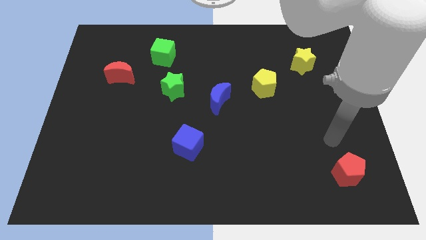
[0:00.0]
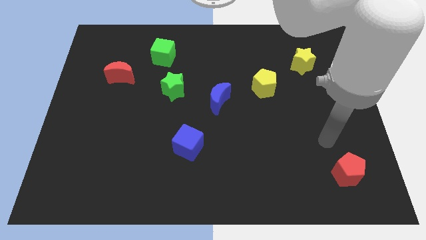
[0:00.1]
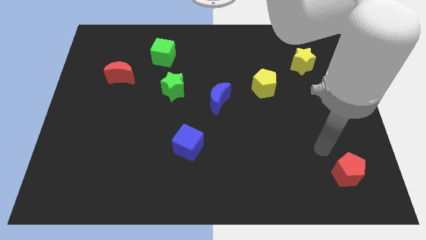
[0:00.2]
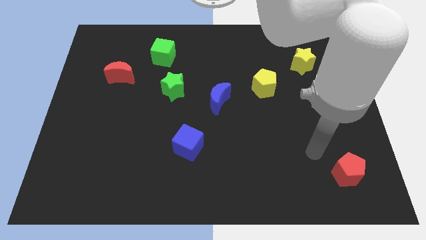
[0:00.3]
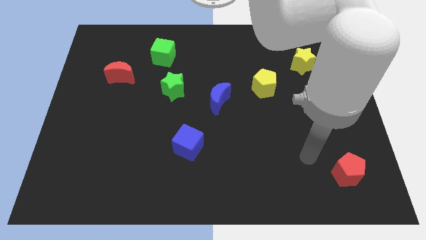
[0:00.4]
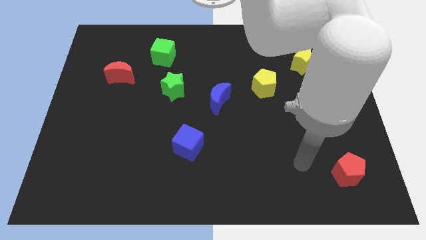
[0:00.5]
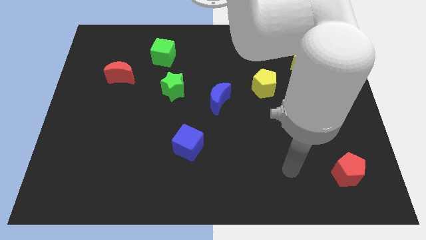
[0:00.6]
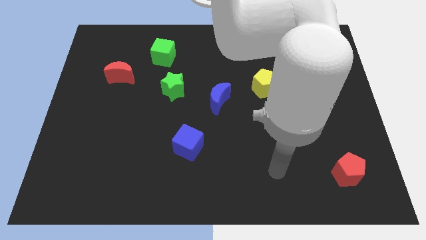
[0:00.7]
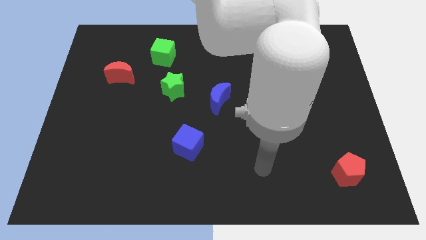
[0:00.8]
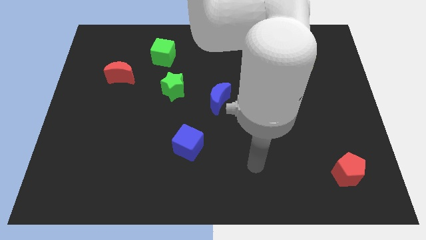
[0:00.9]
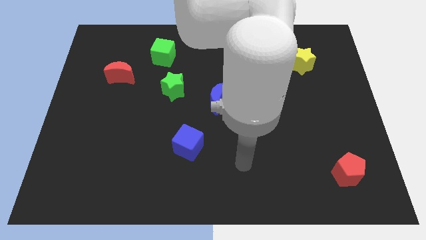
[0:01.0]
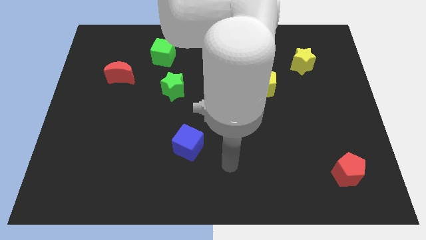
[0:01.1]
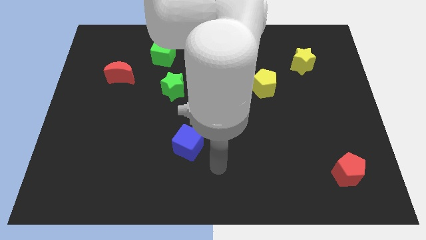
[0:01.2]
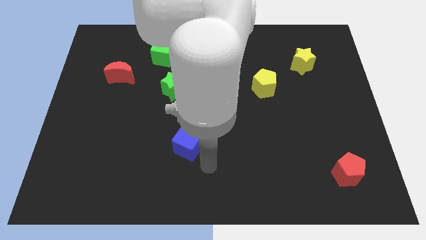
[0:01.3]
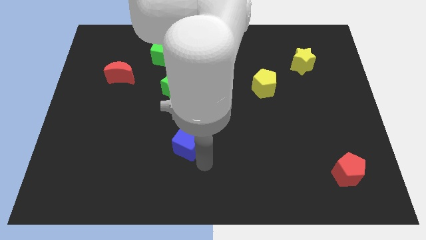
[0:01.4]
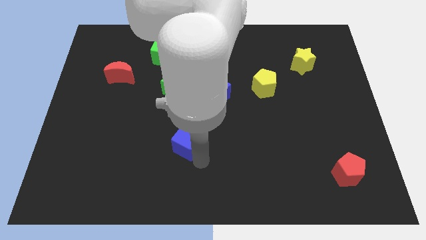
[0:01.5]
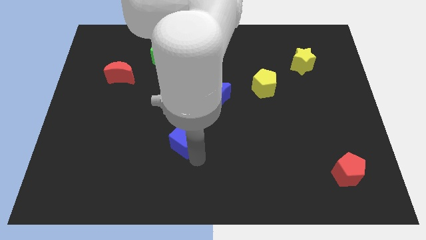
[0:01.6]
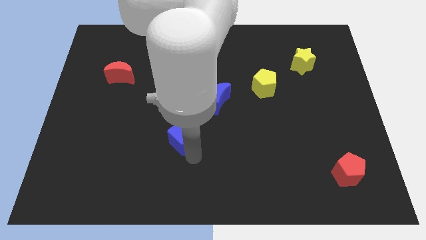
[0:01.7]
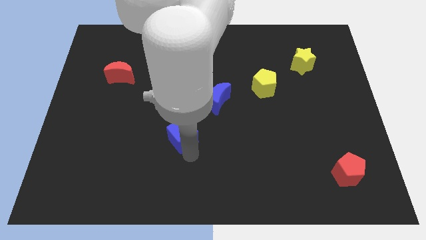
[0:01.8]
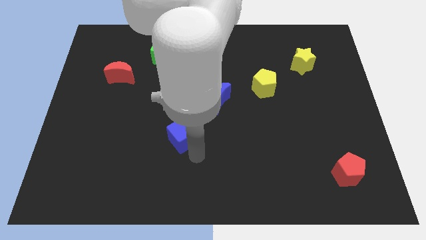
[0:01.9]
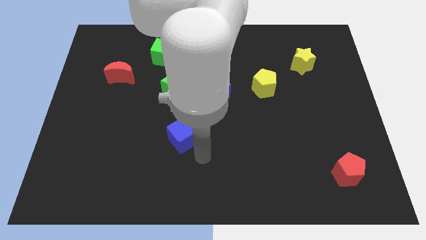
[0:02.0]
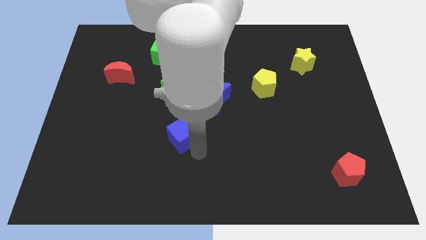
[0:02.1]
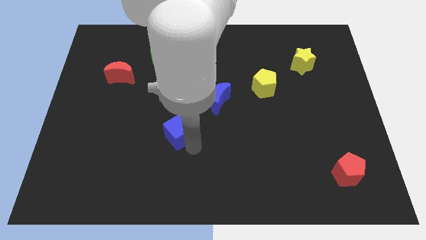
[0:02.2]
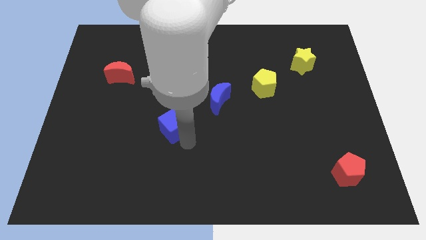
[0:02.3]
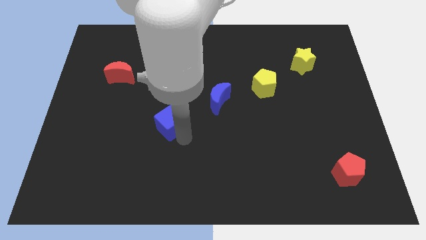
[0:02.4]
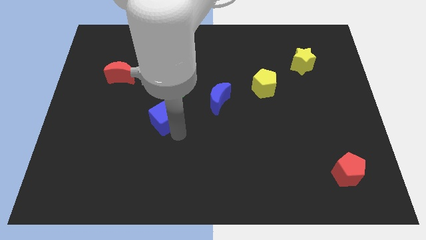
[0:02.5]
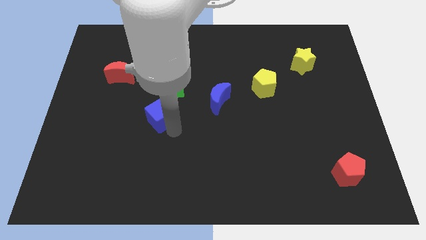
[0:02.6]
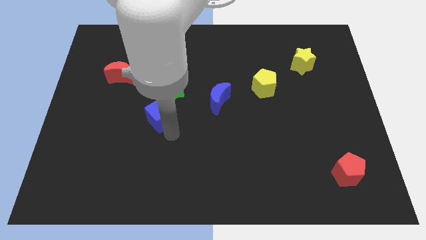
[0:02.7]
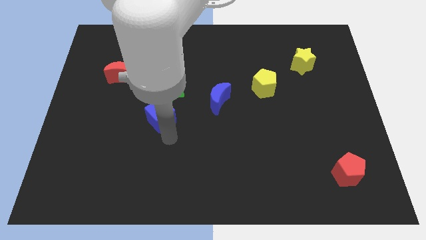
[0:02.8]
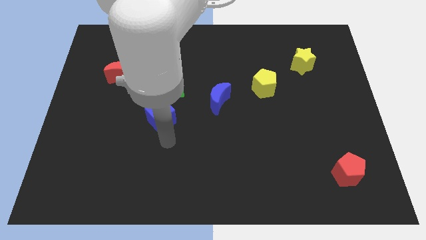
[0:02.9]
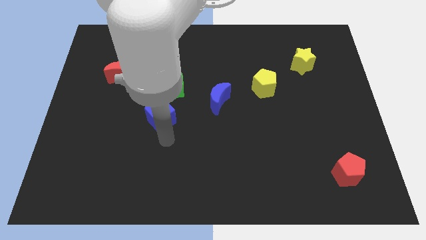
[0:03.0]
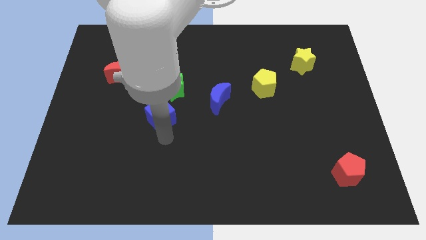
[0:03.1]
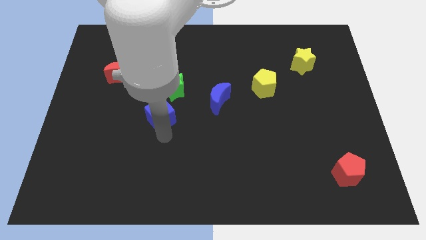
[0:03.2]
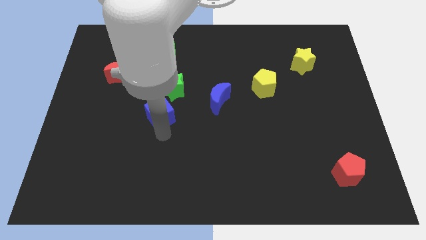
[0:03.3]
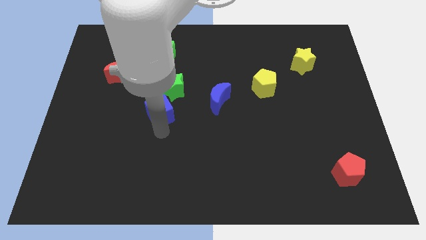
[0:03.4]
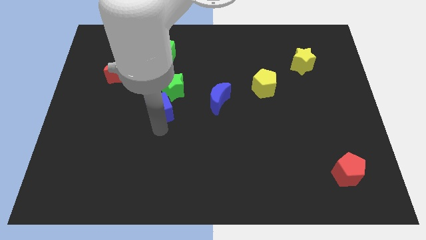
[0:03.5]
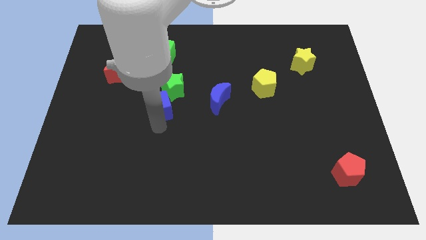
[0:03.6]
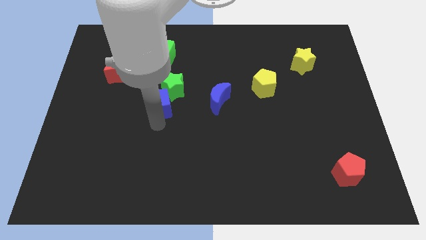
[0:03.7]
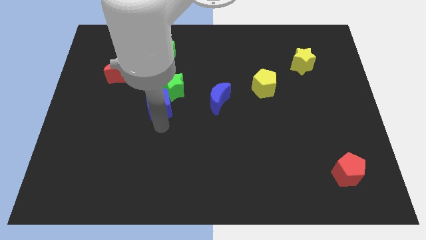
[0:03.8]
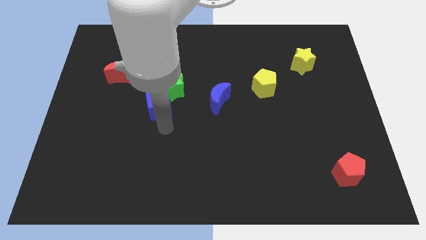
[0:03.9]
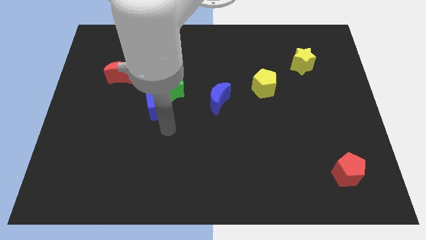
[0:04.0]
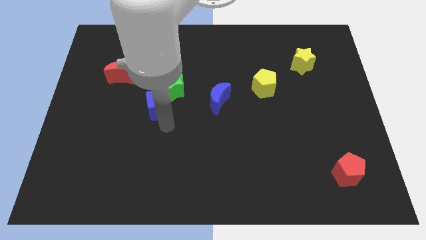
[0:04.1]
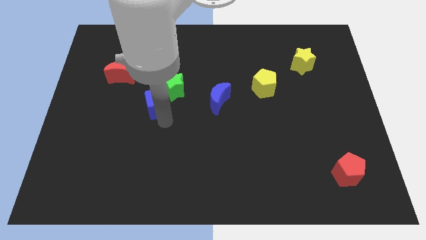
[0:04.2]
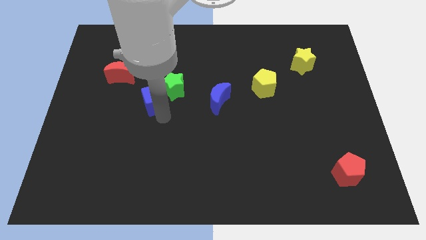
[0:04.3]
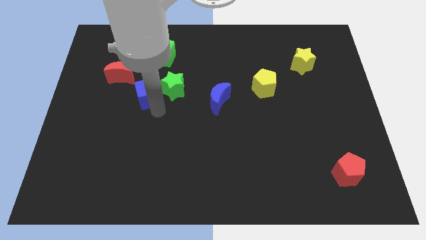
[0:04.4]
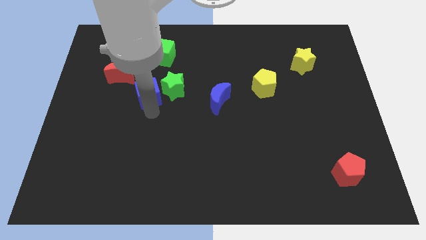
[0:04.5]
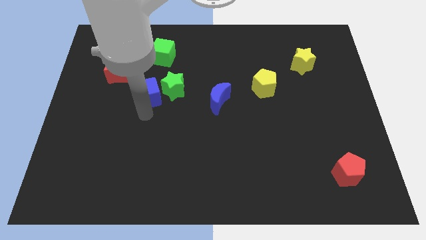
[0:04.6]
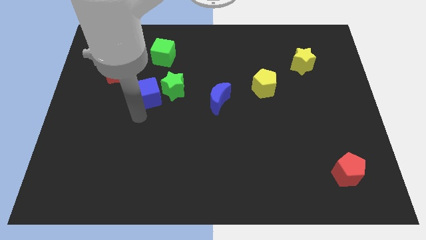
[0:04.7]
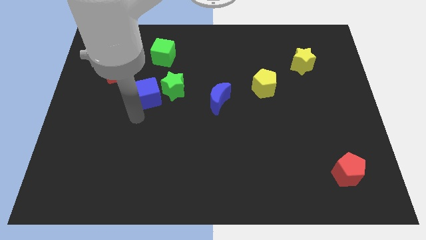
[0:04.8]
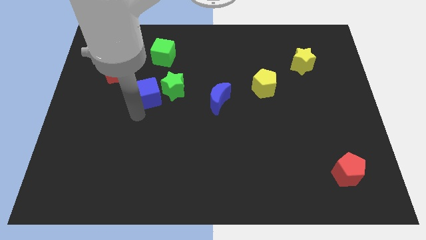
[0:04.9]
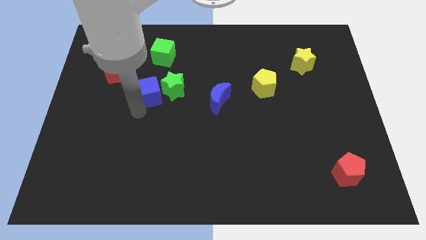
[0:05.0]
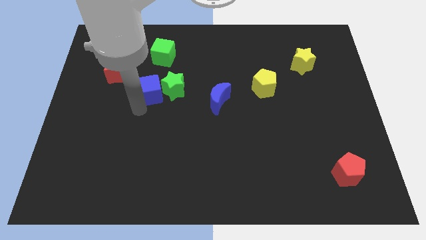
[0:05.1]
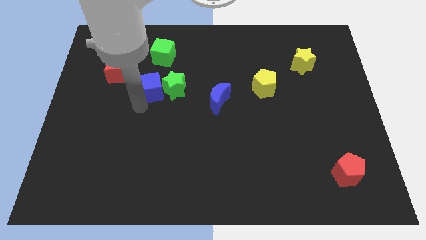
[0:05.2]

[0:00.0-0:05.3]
move the blue cube to the right of the red moon

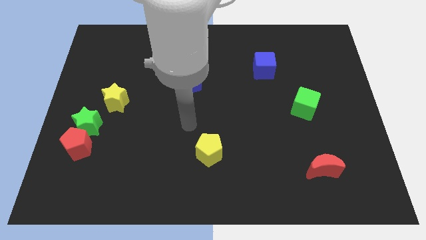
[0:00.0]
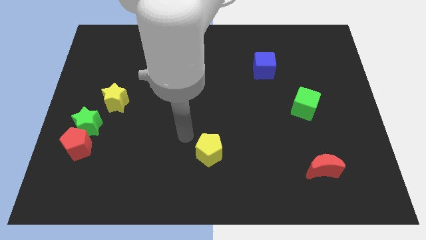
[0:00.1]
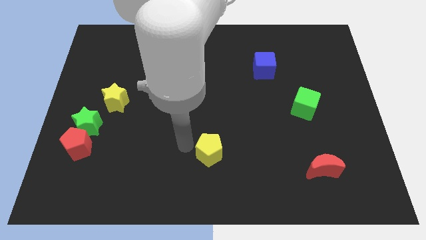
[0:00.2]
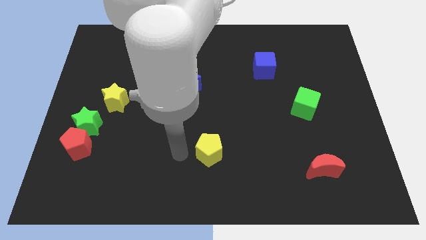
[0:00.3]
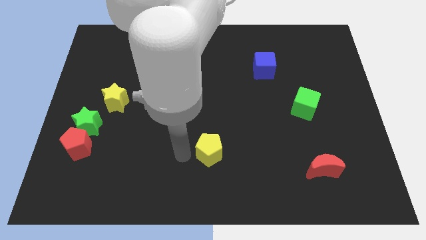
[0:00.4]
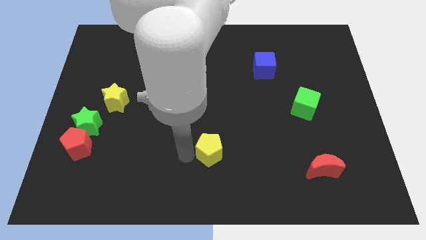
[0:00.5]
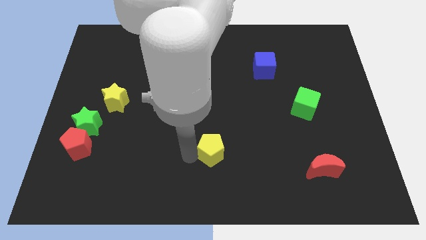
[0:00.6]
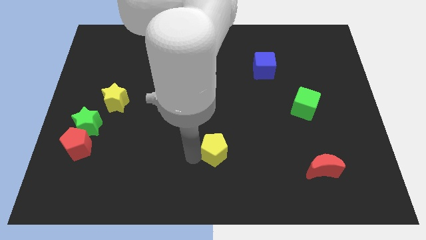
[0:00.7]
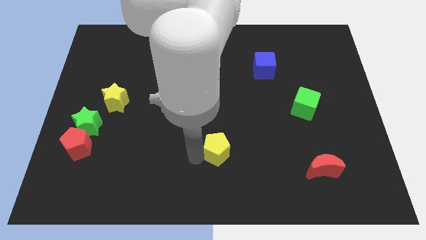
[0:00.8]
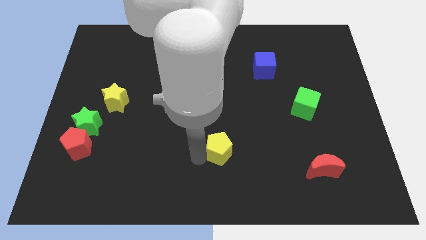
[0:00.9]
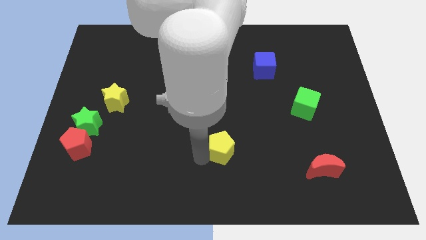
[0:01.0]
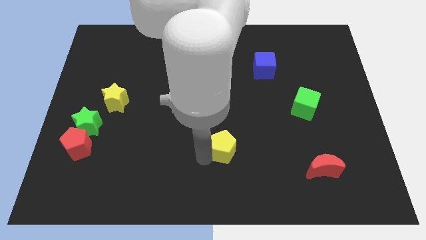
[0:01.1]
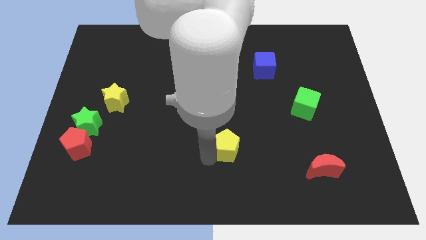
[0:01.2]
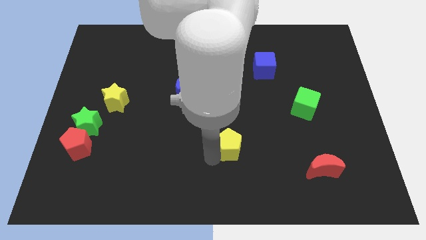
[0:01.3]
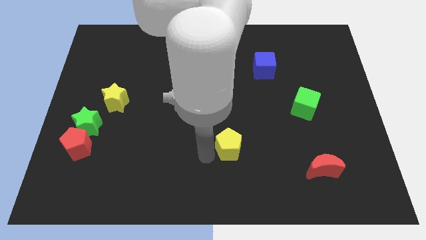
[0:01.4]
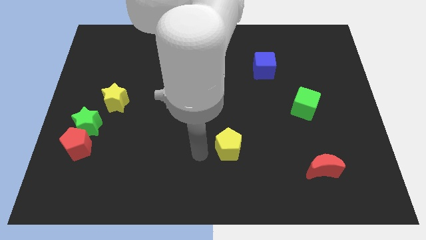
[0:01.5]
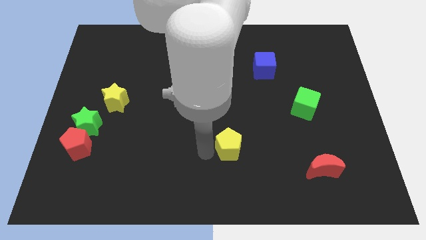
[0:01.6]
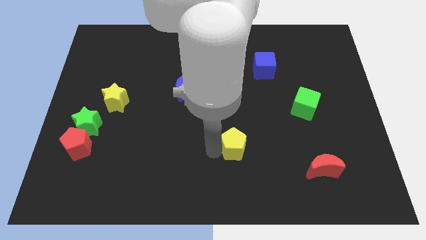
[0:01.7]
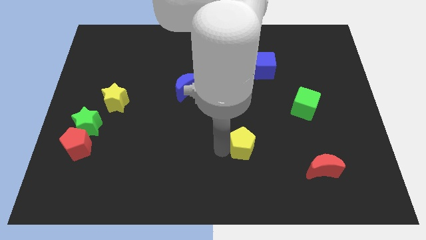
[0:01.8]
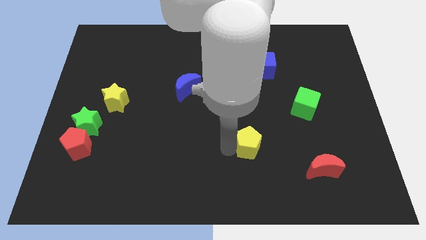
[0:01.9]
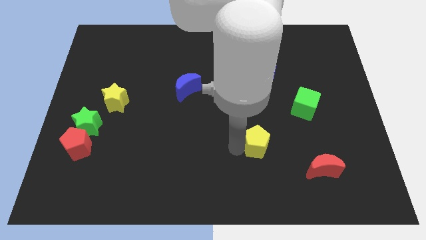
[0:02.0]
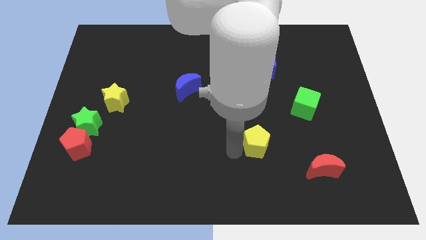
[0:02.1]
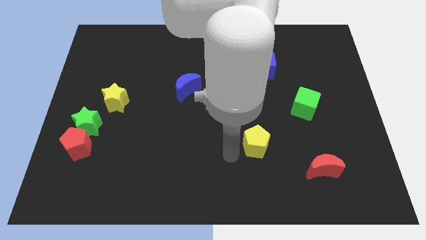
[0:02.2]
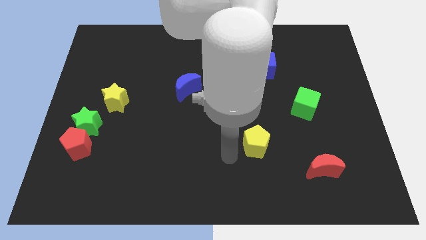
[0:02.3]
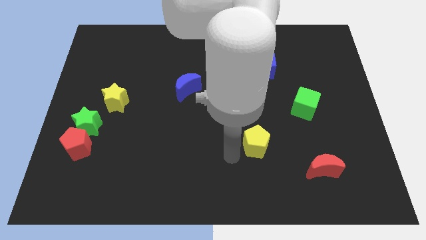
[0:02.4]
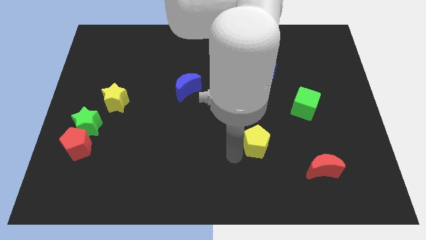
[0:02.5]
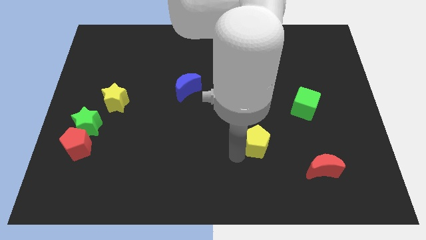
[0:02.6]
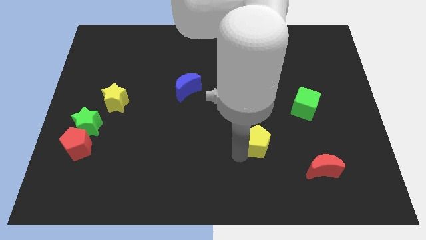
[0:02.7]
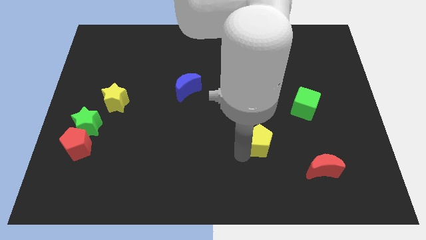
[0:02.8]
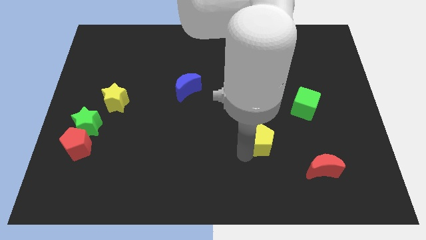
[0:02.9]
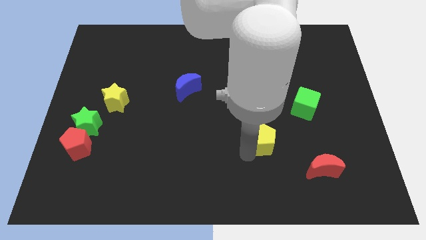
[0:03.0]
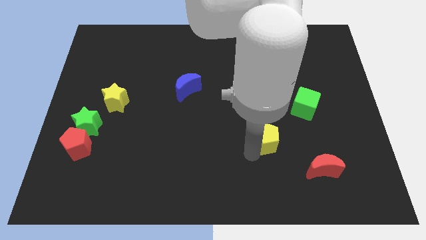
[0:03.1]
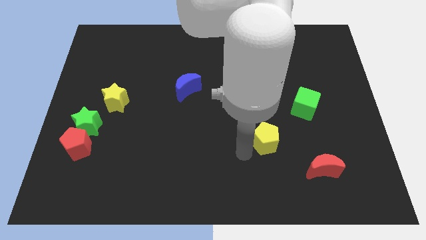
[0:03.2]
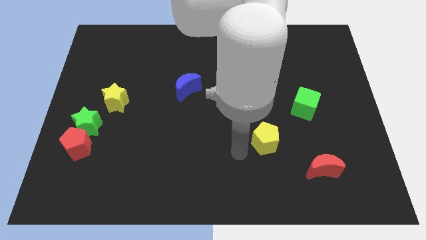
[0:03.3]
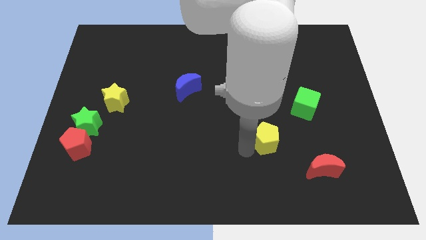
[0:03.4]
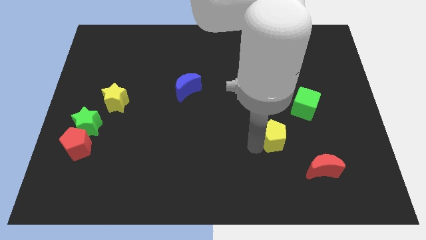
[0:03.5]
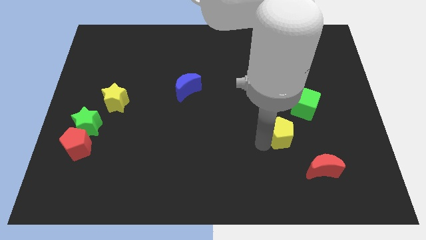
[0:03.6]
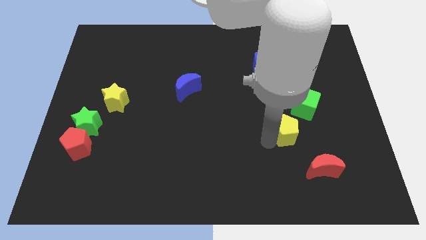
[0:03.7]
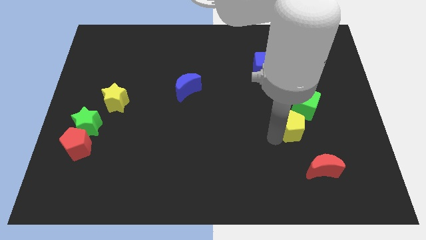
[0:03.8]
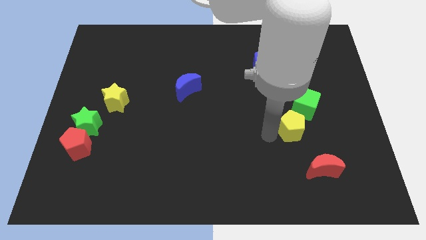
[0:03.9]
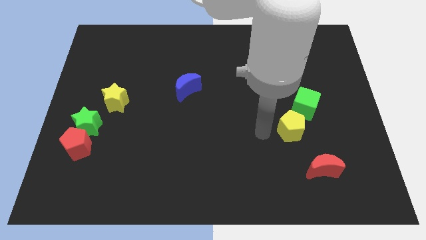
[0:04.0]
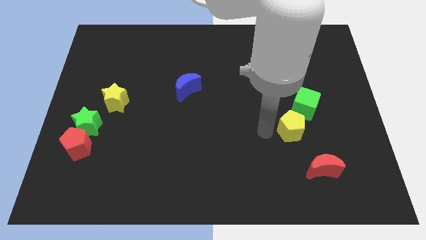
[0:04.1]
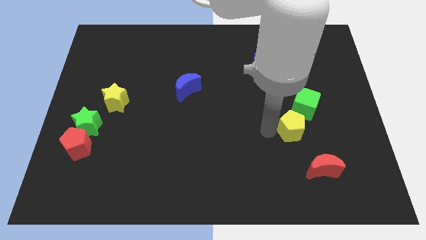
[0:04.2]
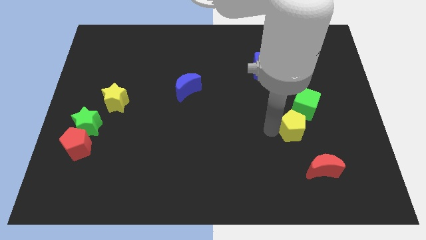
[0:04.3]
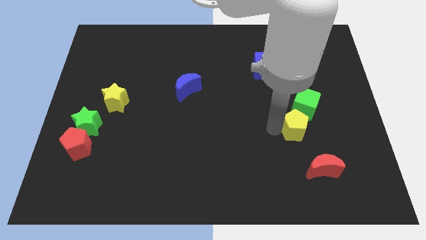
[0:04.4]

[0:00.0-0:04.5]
push the yellow pentagon to the top of the red moon
